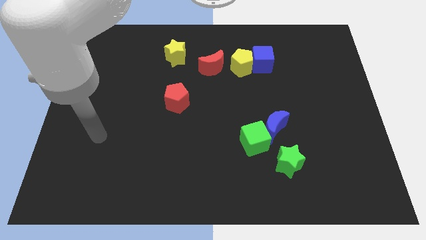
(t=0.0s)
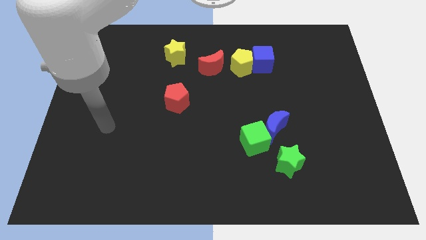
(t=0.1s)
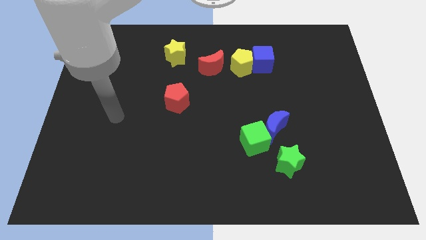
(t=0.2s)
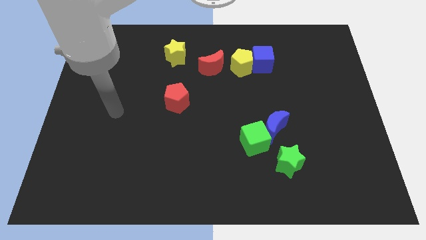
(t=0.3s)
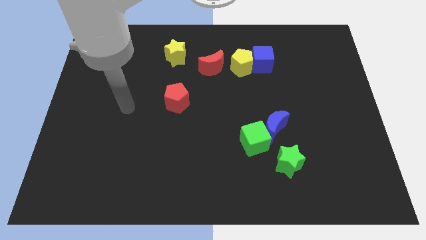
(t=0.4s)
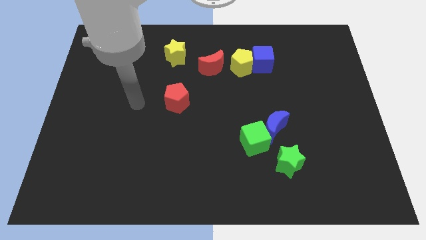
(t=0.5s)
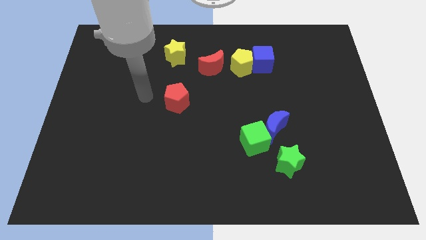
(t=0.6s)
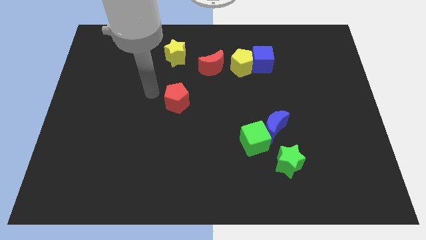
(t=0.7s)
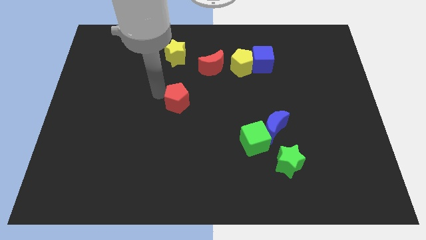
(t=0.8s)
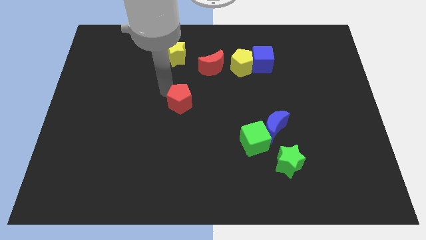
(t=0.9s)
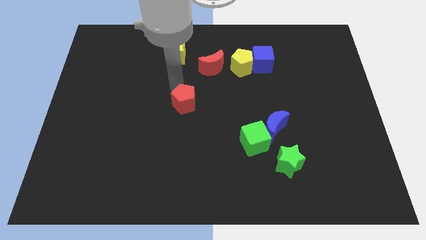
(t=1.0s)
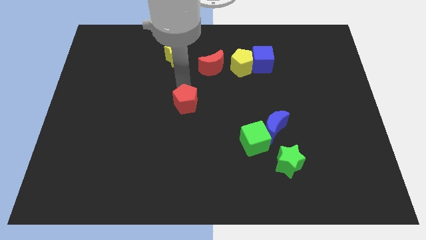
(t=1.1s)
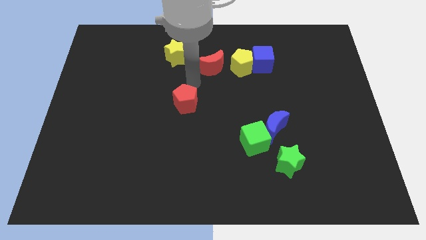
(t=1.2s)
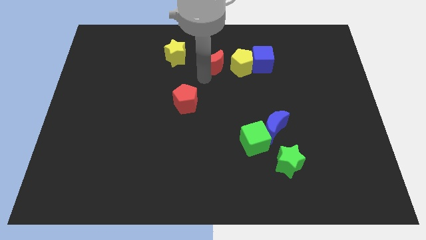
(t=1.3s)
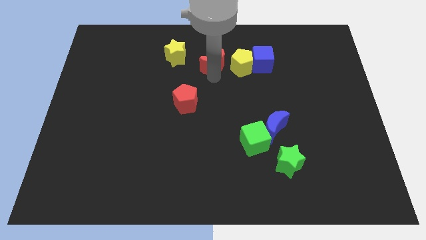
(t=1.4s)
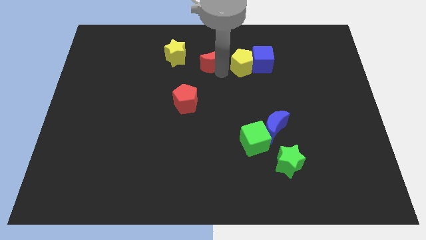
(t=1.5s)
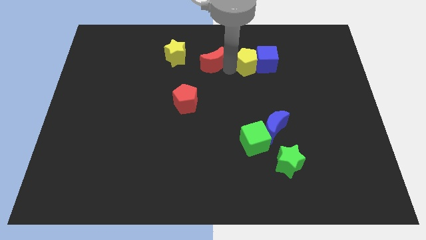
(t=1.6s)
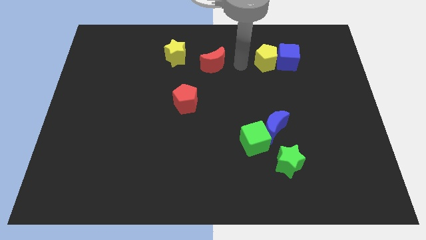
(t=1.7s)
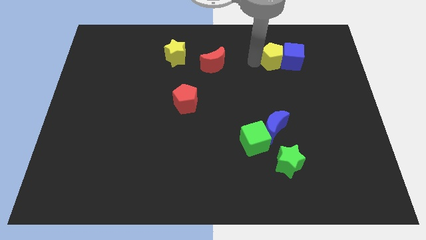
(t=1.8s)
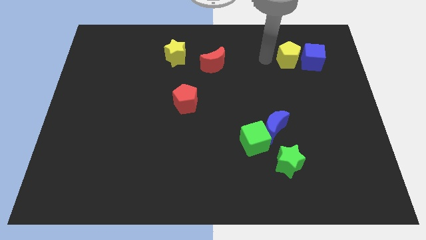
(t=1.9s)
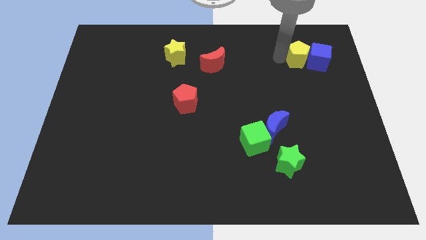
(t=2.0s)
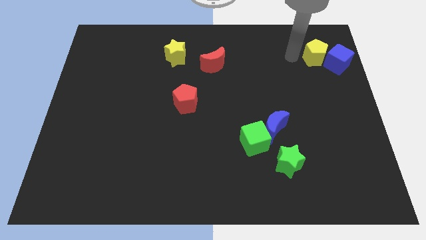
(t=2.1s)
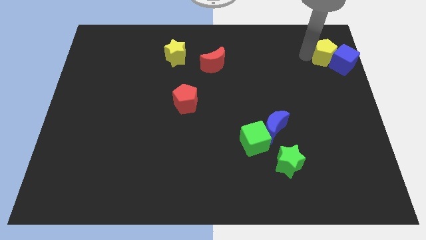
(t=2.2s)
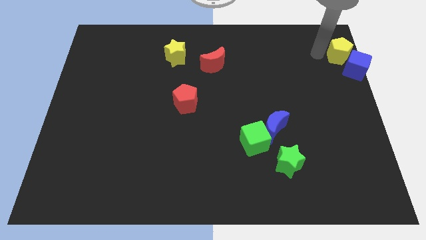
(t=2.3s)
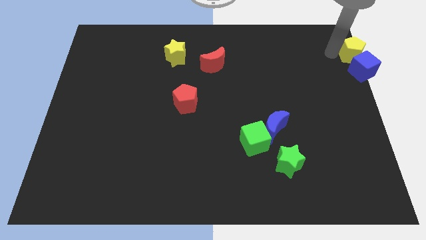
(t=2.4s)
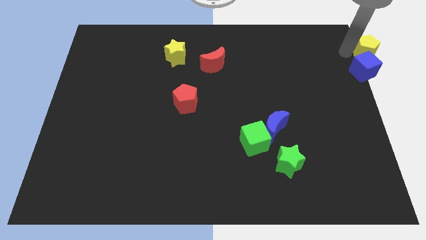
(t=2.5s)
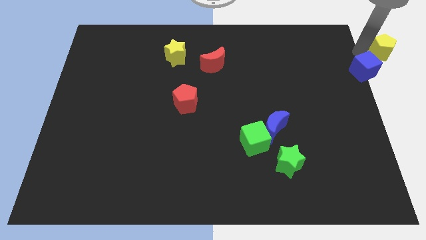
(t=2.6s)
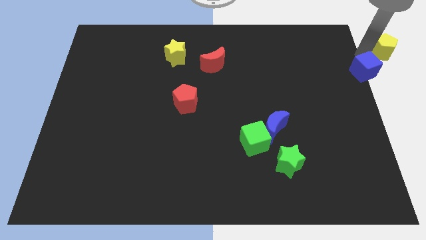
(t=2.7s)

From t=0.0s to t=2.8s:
separate the blue cube from the yellow pentagon

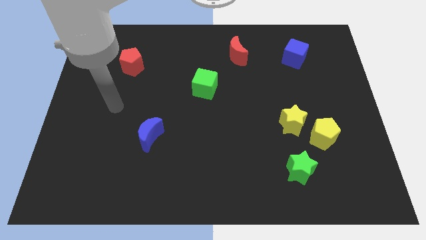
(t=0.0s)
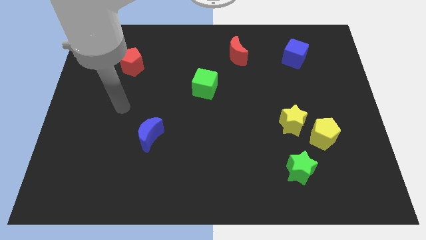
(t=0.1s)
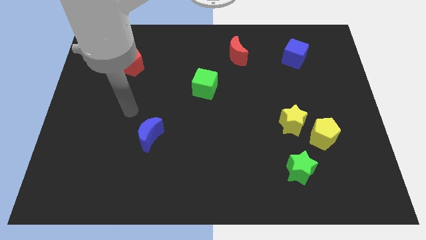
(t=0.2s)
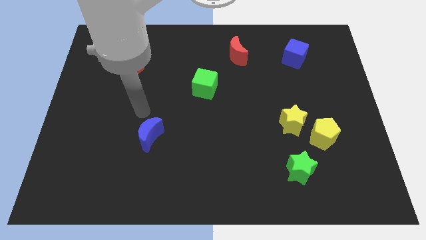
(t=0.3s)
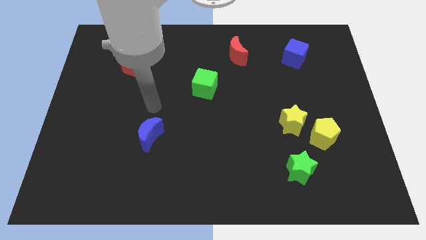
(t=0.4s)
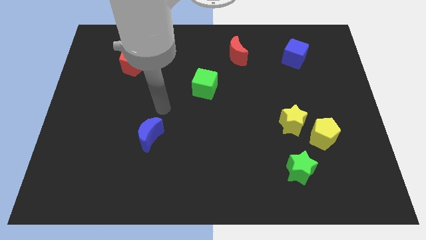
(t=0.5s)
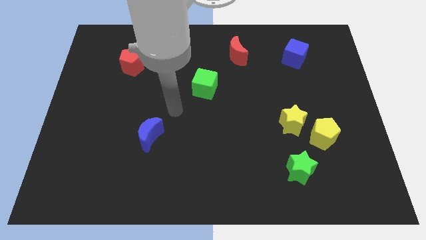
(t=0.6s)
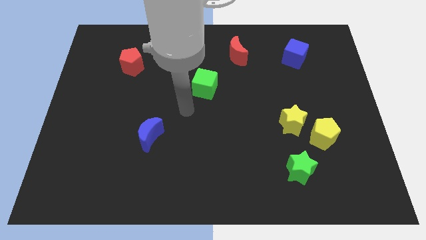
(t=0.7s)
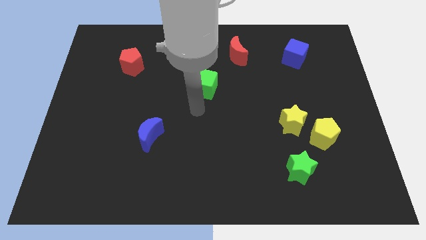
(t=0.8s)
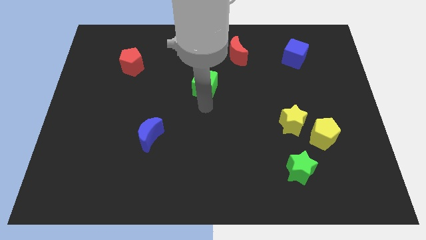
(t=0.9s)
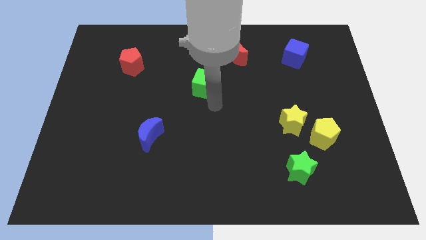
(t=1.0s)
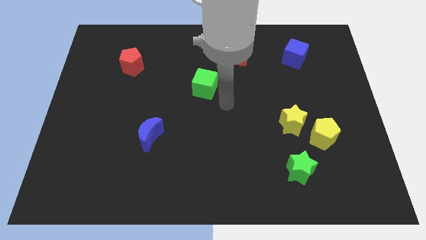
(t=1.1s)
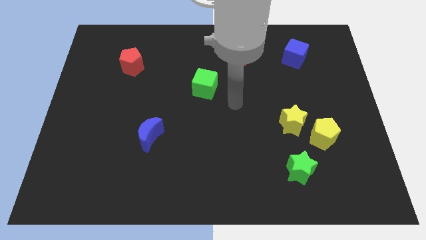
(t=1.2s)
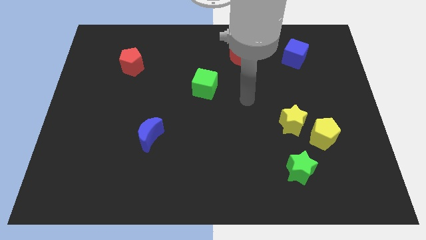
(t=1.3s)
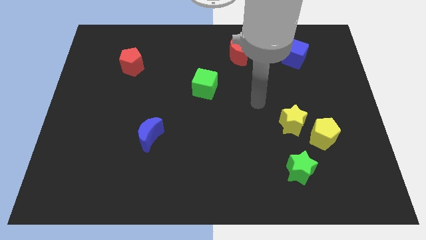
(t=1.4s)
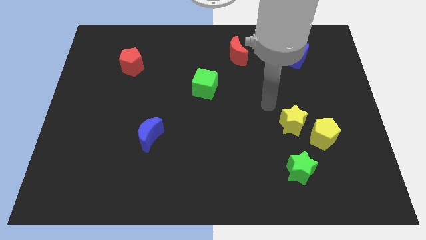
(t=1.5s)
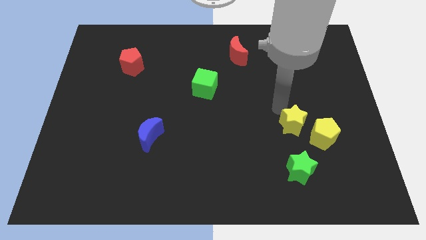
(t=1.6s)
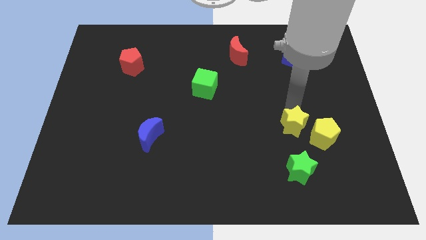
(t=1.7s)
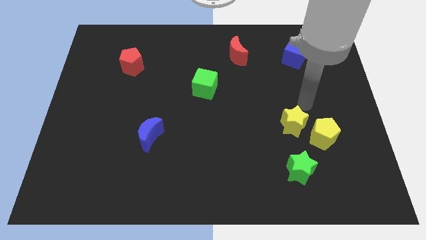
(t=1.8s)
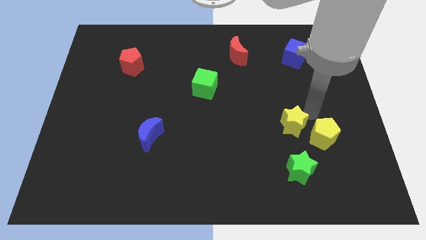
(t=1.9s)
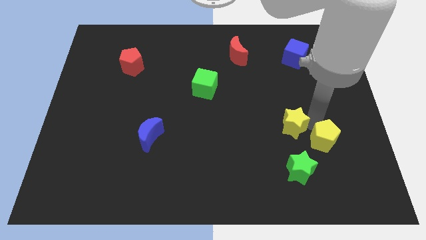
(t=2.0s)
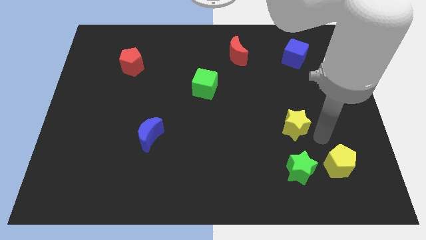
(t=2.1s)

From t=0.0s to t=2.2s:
pull the yellow star apart from the yellow pentagon

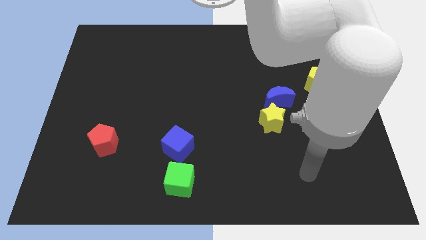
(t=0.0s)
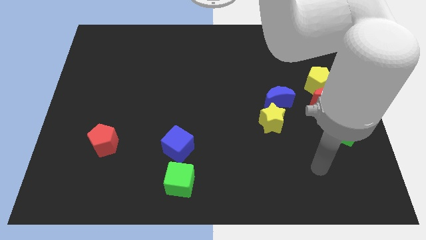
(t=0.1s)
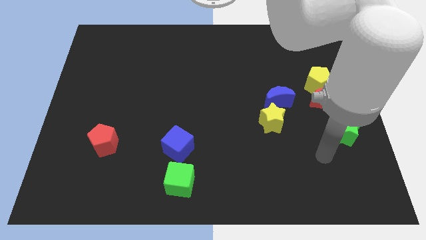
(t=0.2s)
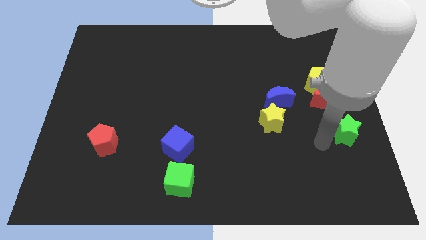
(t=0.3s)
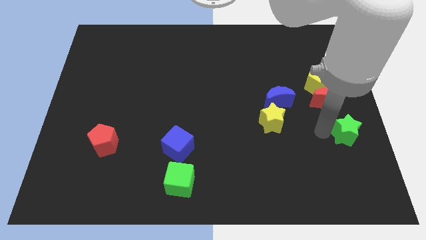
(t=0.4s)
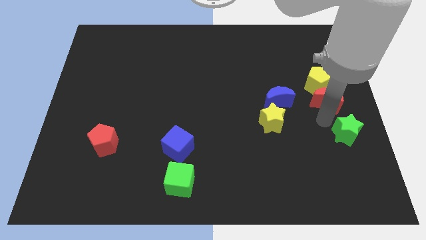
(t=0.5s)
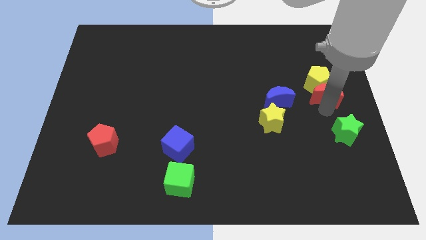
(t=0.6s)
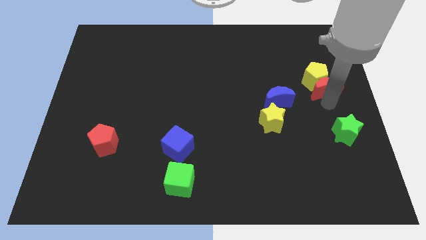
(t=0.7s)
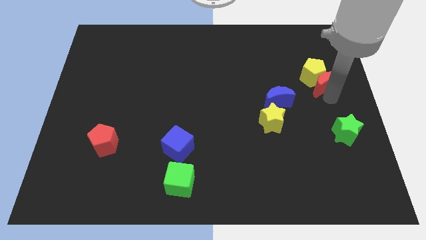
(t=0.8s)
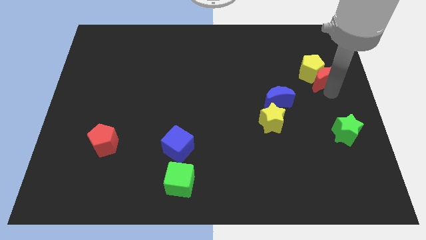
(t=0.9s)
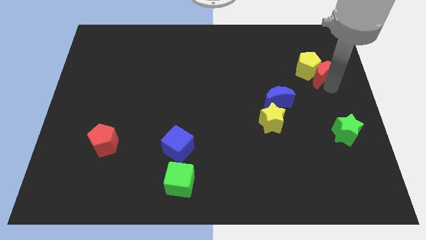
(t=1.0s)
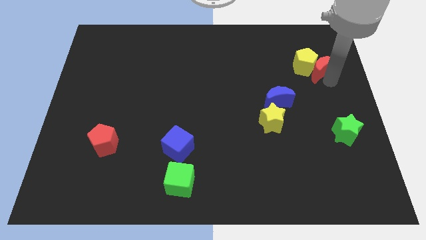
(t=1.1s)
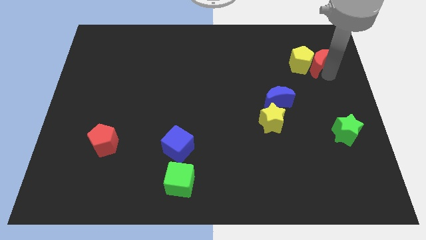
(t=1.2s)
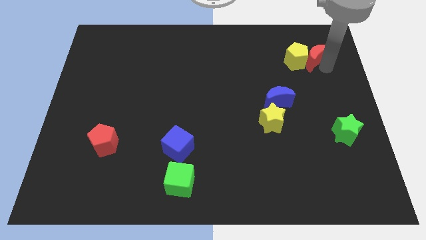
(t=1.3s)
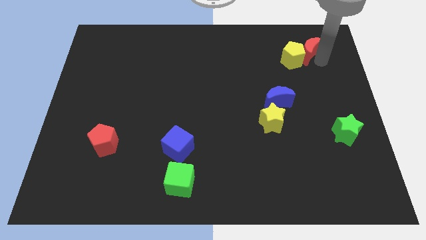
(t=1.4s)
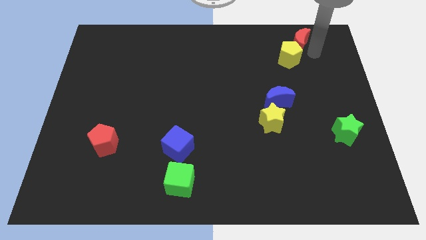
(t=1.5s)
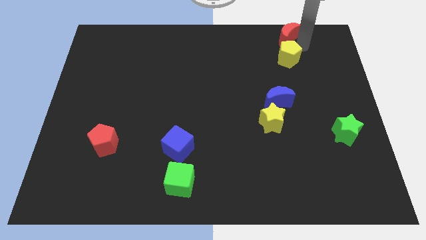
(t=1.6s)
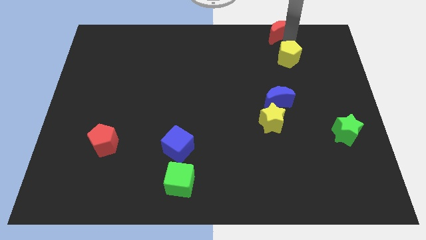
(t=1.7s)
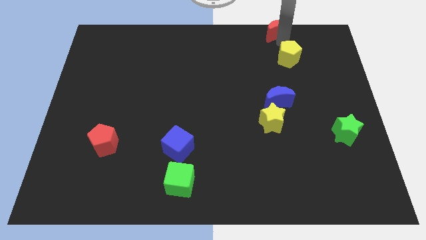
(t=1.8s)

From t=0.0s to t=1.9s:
separate the yellow pentagon from the red moon

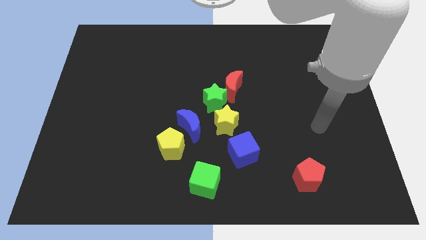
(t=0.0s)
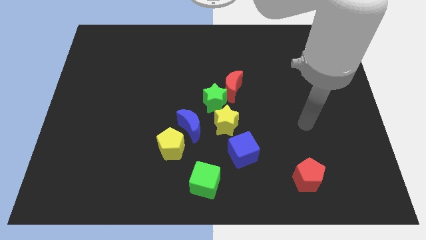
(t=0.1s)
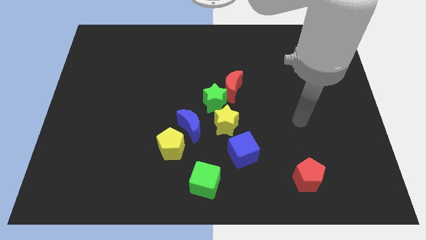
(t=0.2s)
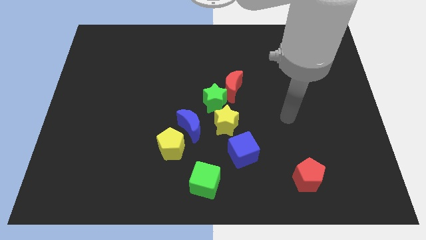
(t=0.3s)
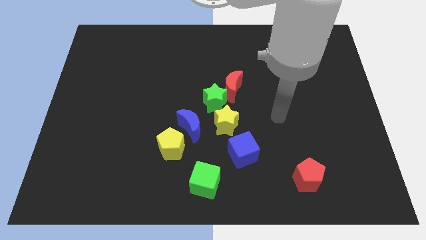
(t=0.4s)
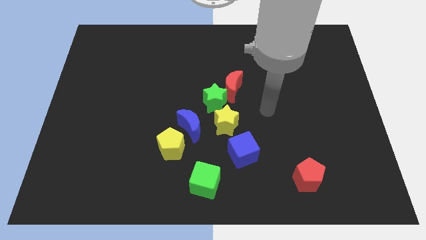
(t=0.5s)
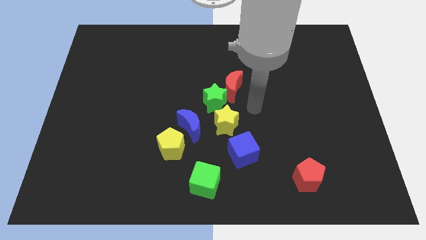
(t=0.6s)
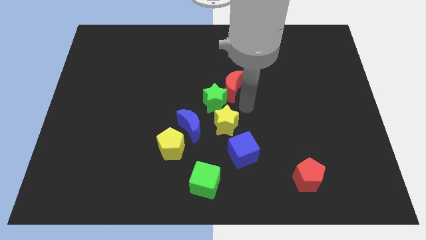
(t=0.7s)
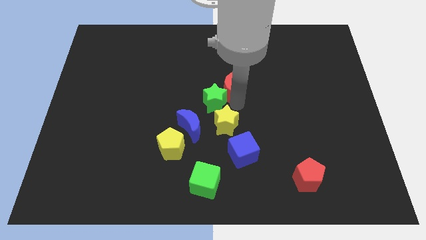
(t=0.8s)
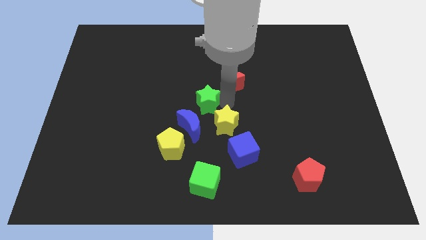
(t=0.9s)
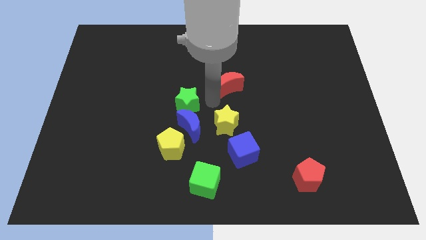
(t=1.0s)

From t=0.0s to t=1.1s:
move the red moon away from the green star

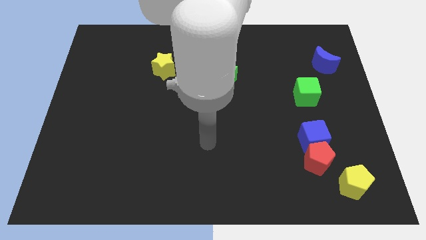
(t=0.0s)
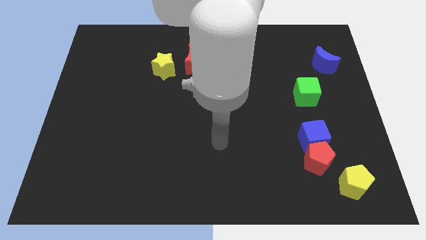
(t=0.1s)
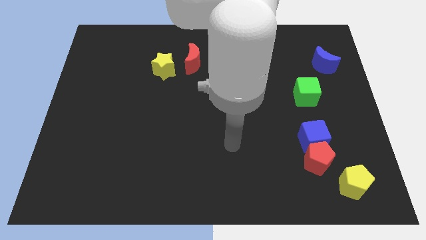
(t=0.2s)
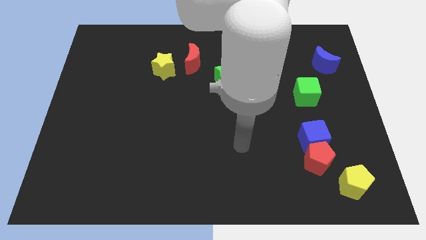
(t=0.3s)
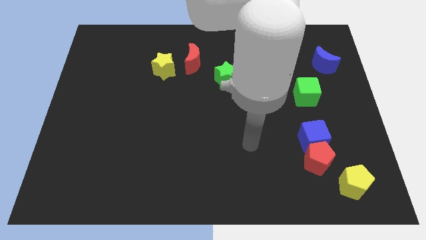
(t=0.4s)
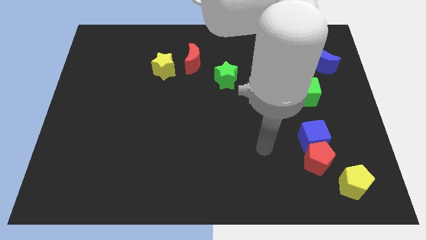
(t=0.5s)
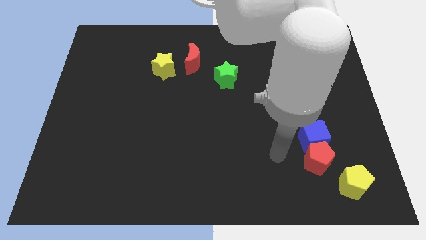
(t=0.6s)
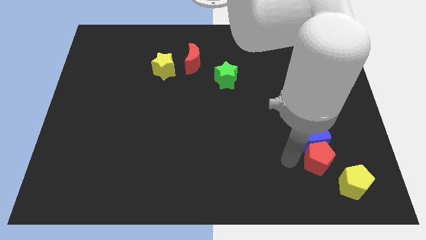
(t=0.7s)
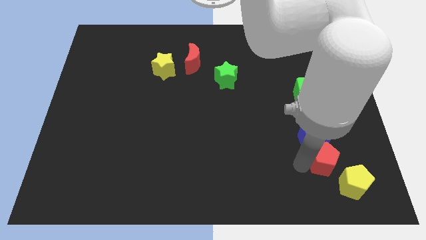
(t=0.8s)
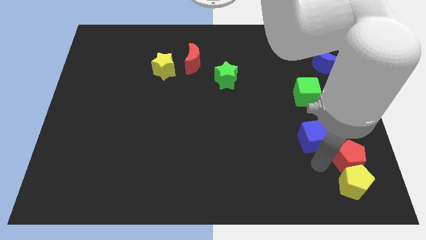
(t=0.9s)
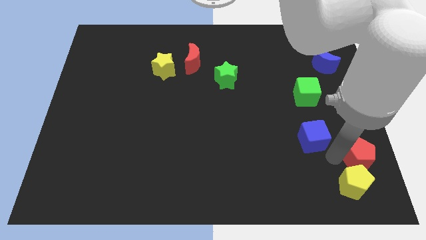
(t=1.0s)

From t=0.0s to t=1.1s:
pull the blue cube apart from the red pentagon
